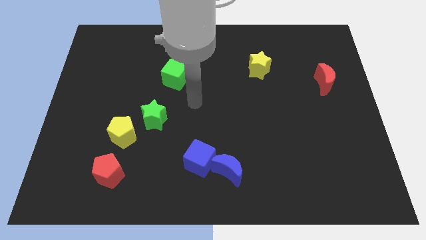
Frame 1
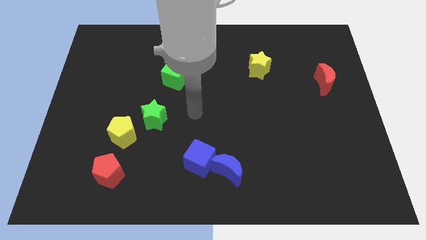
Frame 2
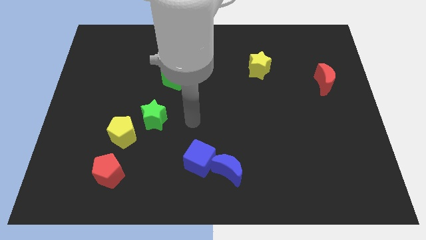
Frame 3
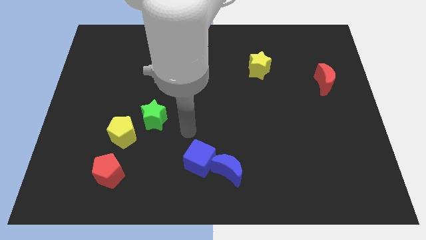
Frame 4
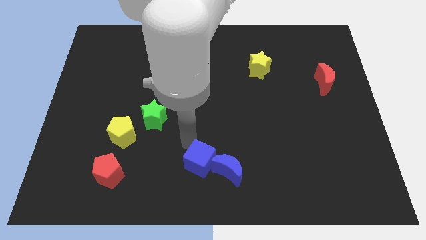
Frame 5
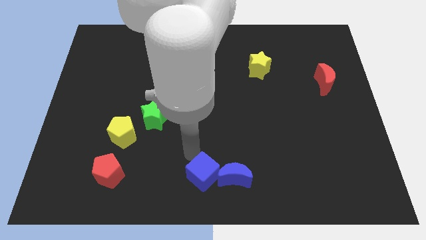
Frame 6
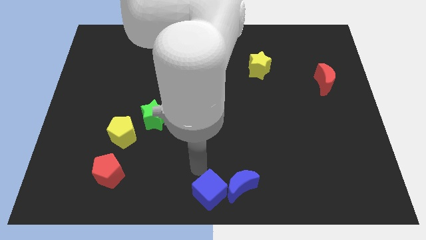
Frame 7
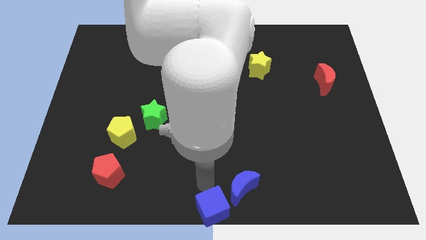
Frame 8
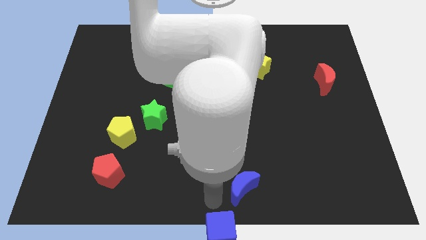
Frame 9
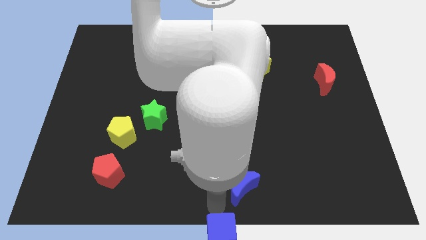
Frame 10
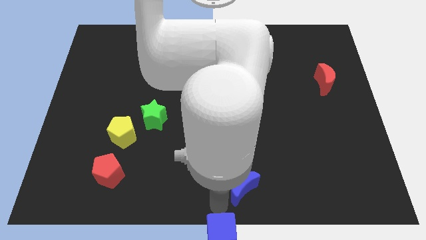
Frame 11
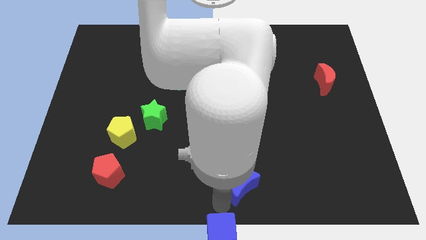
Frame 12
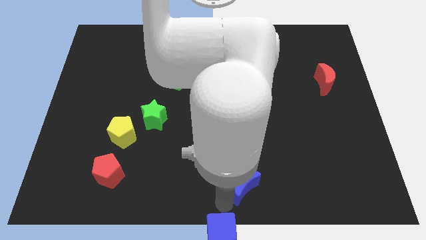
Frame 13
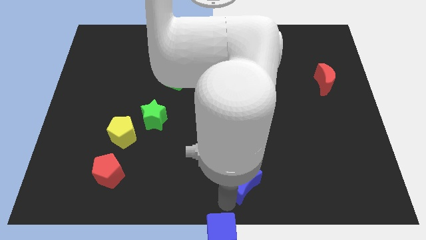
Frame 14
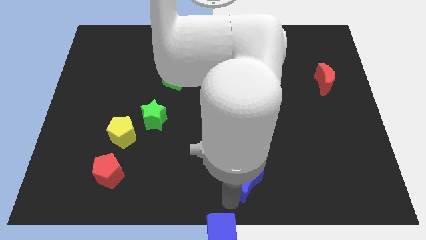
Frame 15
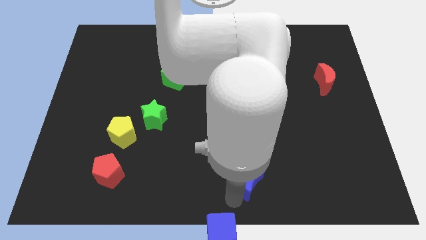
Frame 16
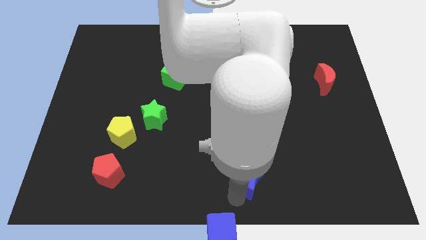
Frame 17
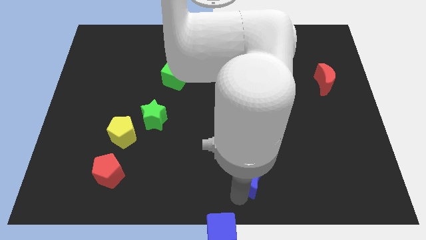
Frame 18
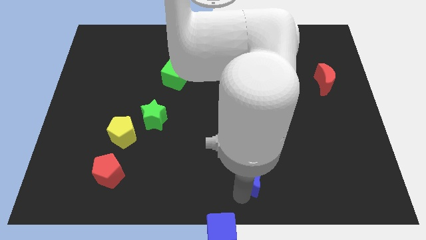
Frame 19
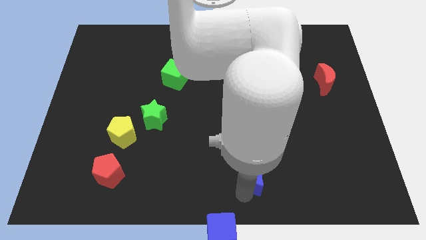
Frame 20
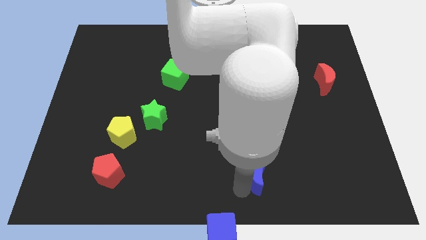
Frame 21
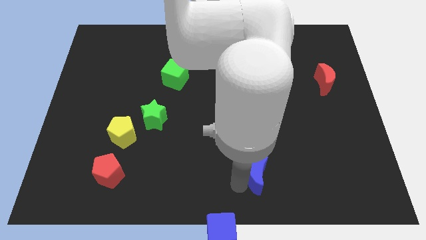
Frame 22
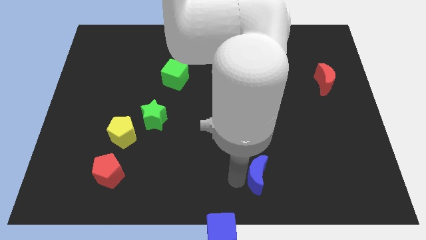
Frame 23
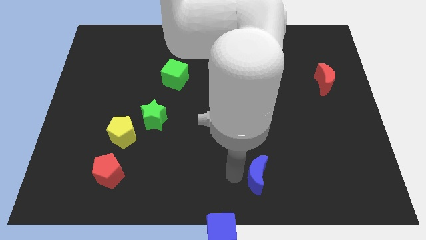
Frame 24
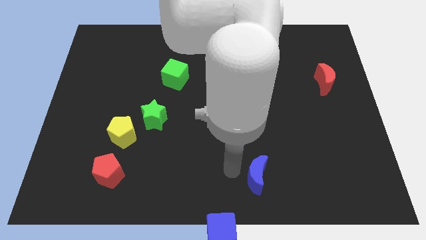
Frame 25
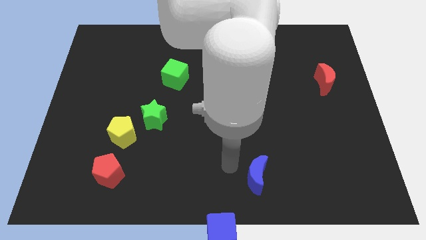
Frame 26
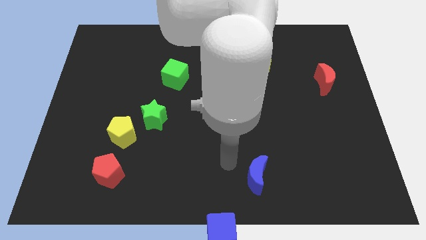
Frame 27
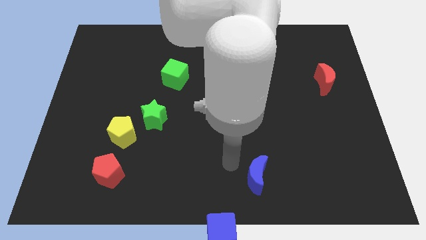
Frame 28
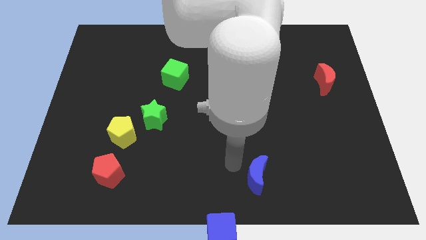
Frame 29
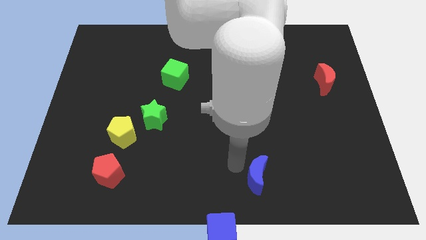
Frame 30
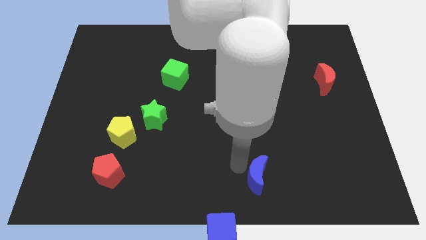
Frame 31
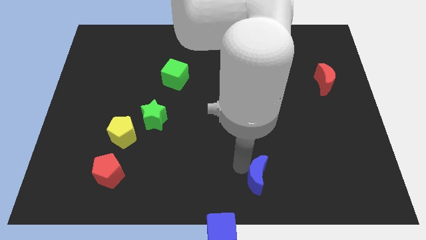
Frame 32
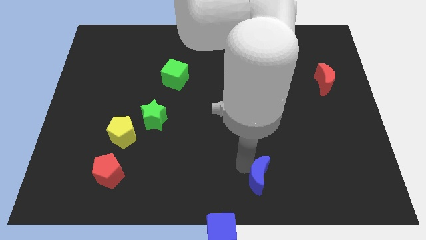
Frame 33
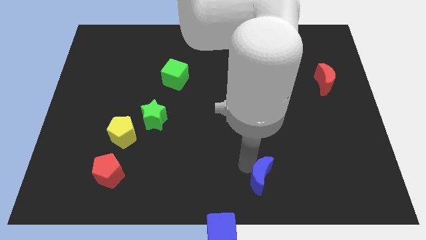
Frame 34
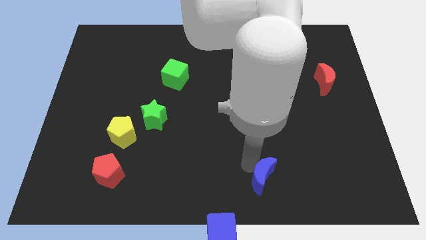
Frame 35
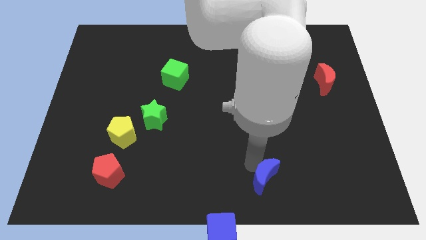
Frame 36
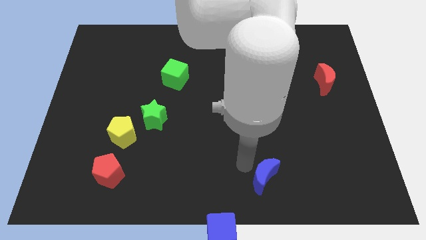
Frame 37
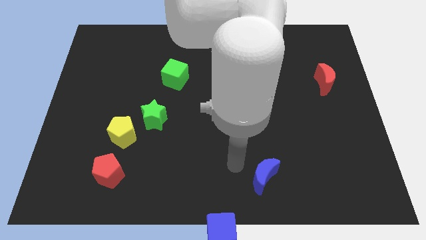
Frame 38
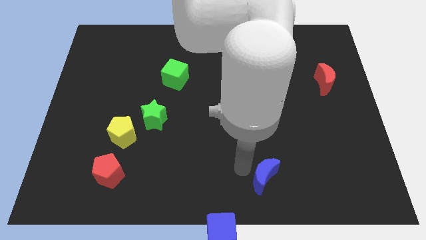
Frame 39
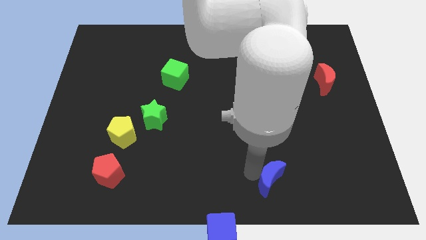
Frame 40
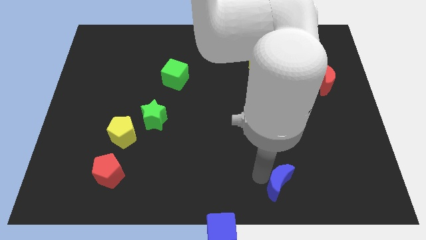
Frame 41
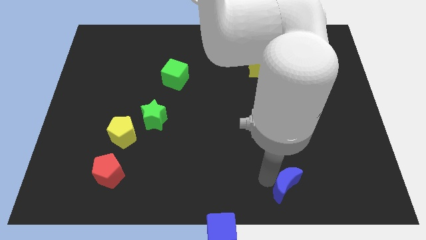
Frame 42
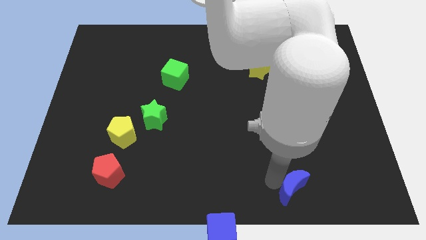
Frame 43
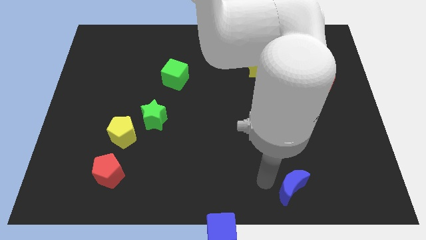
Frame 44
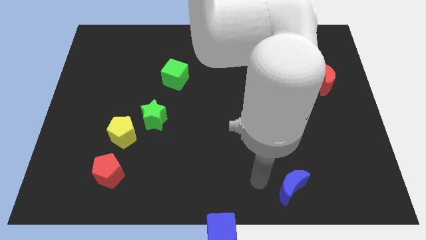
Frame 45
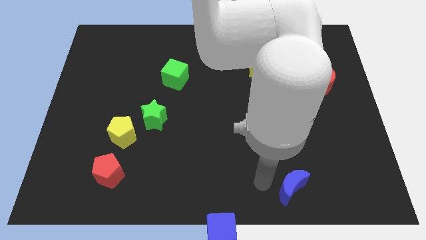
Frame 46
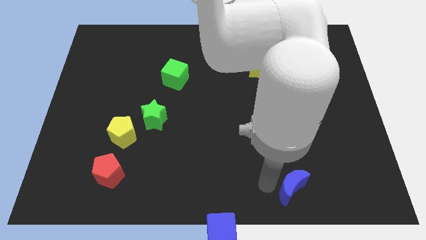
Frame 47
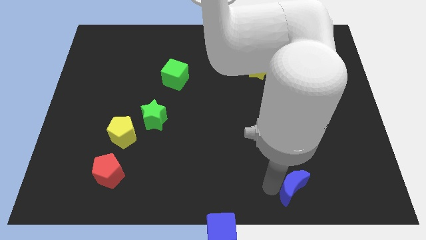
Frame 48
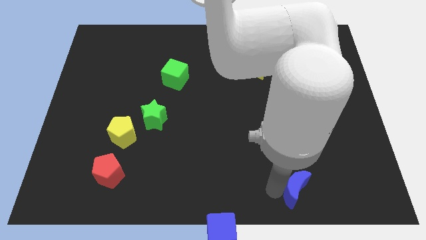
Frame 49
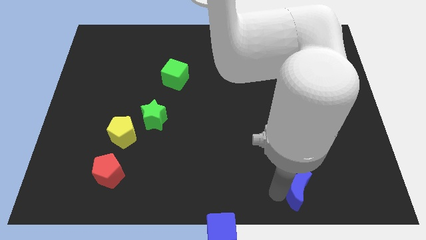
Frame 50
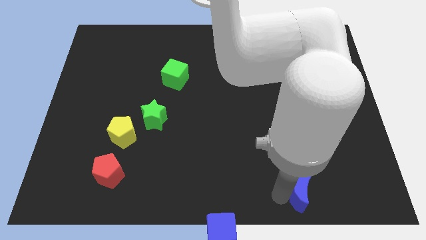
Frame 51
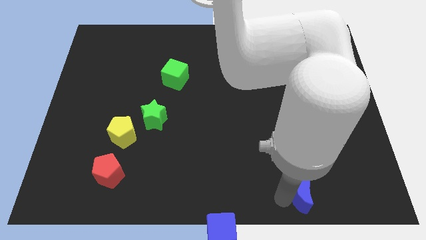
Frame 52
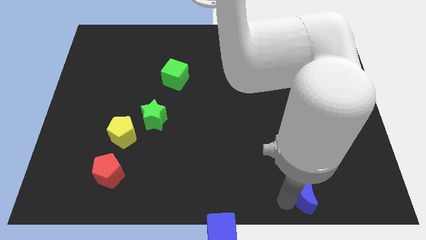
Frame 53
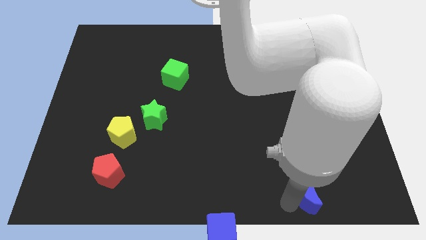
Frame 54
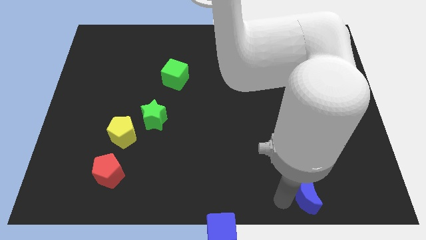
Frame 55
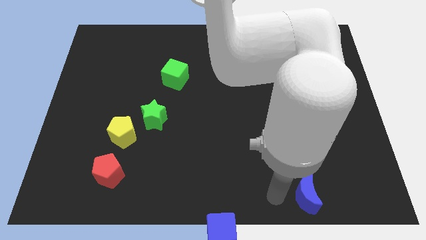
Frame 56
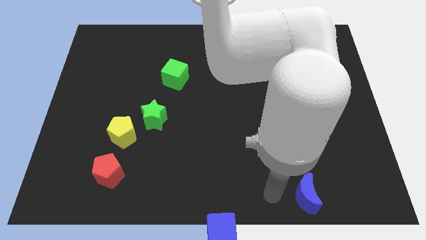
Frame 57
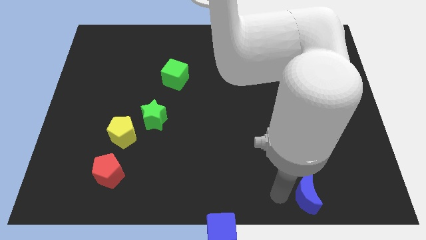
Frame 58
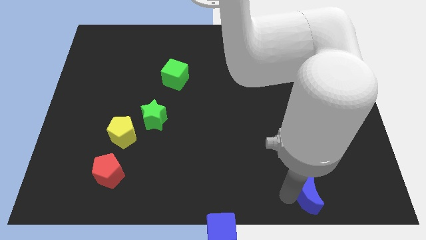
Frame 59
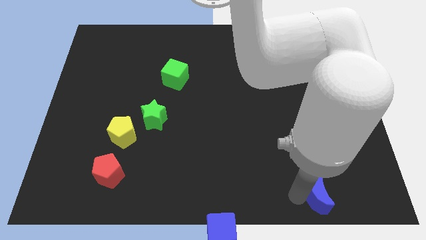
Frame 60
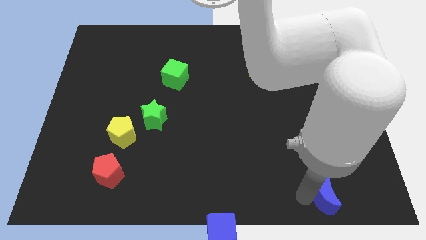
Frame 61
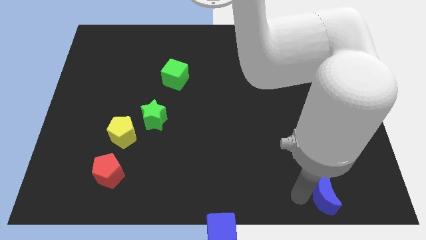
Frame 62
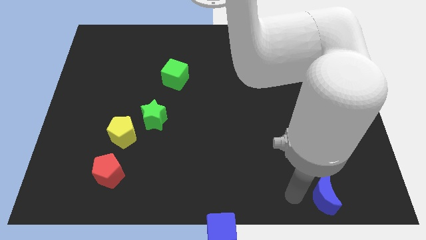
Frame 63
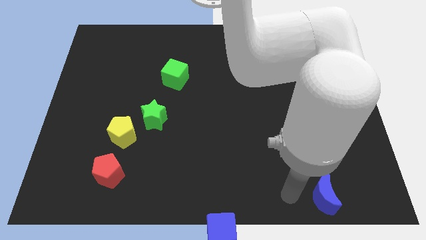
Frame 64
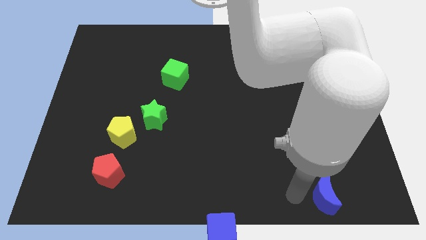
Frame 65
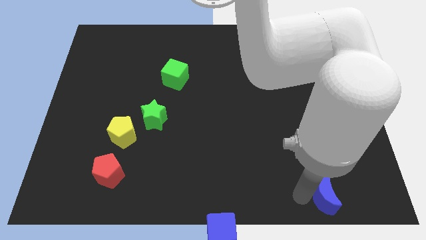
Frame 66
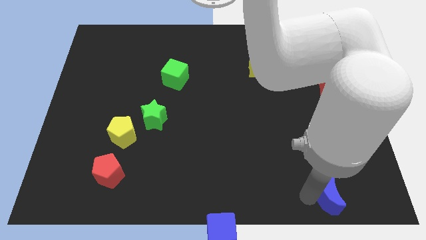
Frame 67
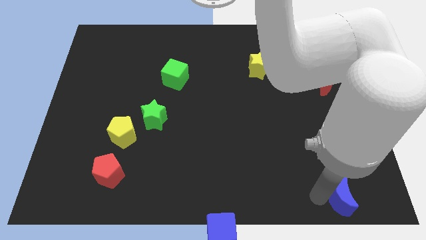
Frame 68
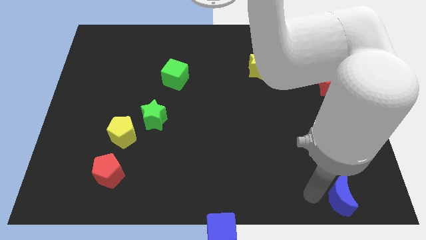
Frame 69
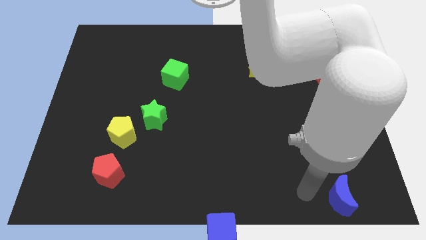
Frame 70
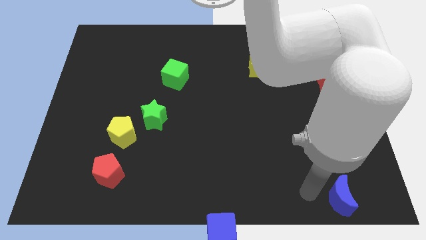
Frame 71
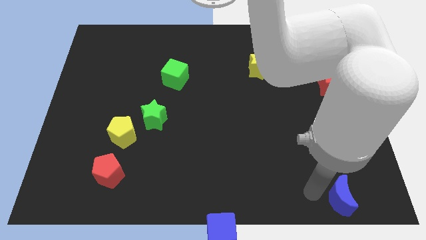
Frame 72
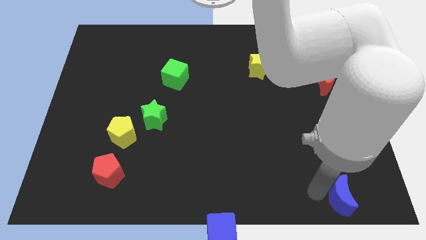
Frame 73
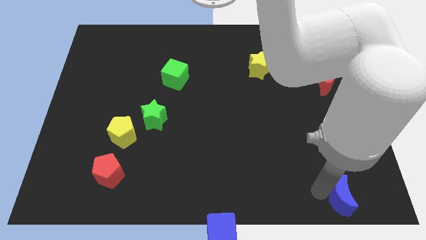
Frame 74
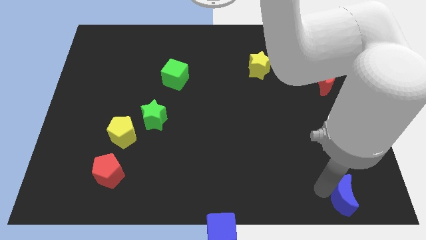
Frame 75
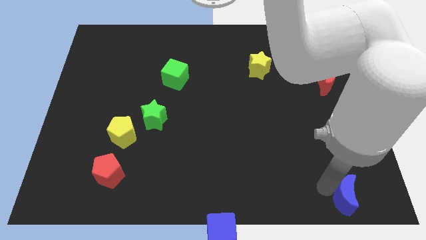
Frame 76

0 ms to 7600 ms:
move the blue moon to the bottom right
